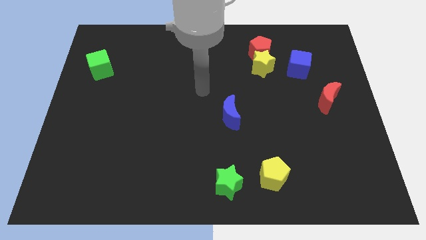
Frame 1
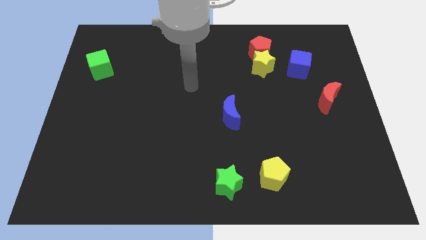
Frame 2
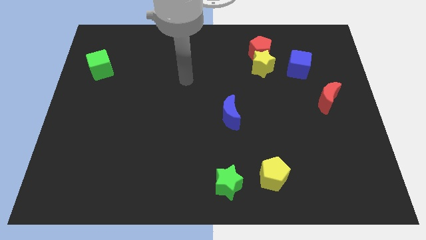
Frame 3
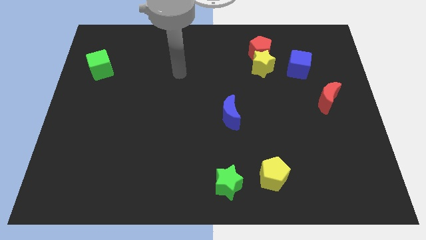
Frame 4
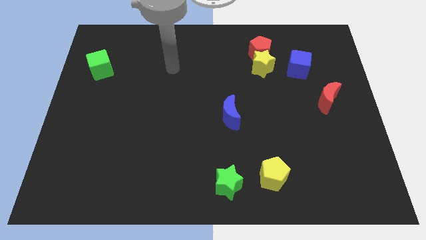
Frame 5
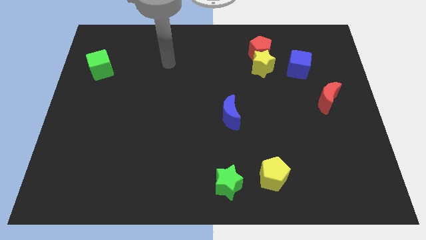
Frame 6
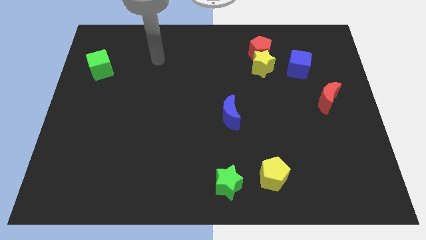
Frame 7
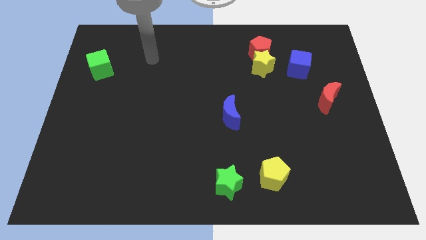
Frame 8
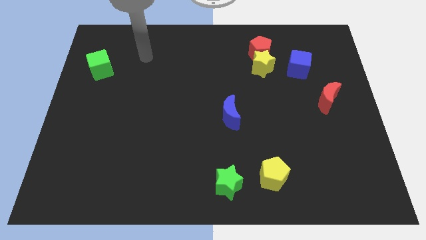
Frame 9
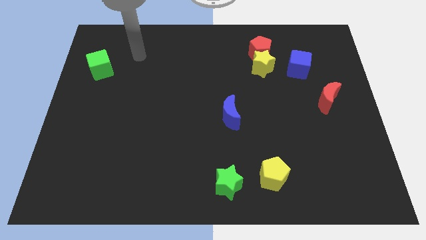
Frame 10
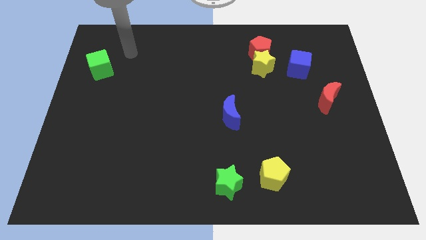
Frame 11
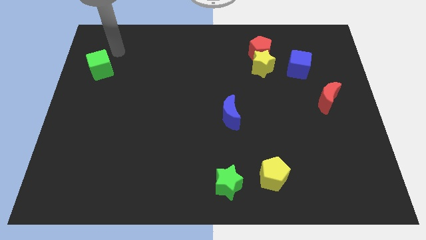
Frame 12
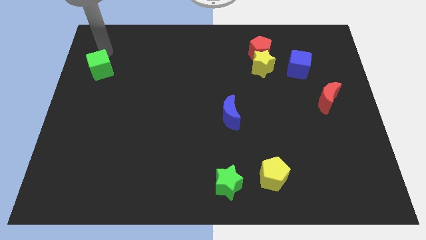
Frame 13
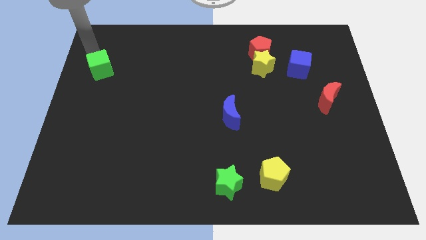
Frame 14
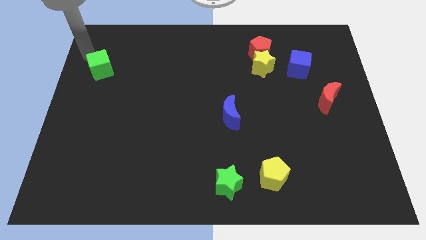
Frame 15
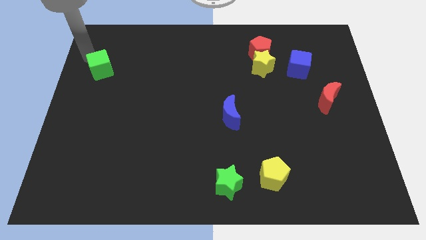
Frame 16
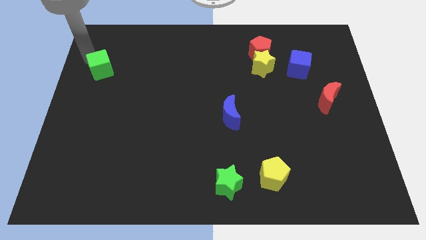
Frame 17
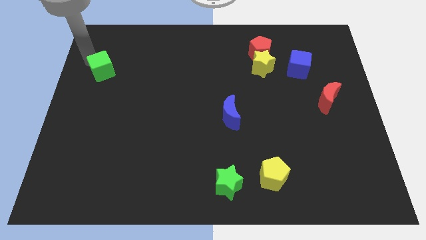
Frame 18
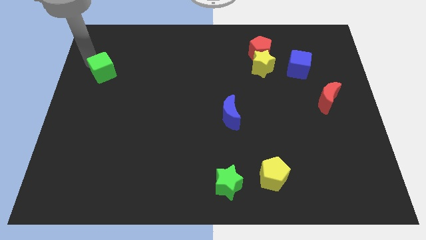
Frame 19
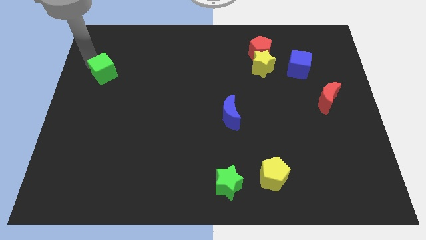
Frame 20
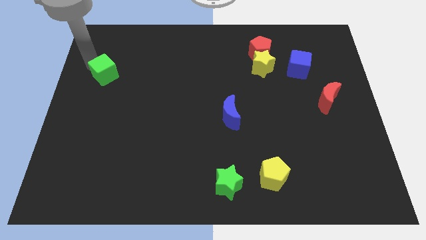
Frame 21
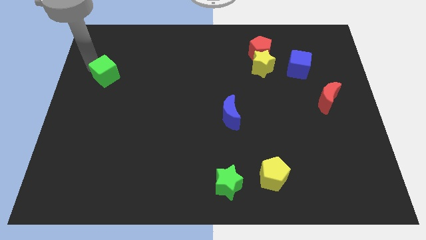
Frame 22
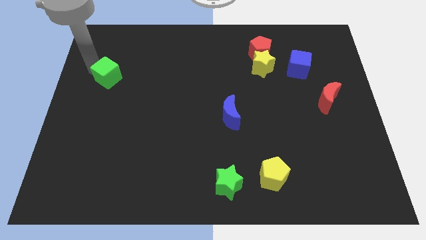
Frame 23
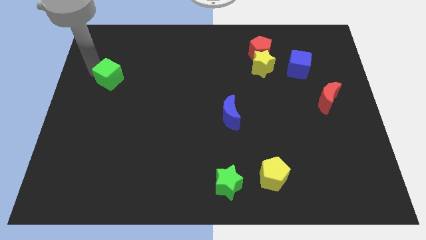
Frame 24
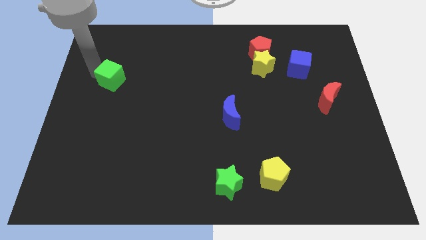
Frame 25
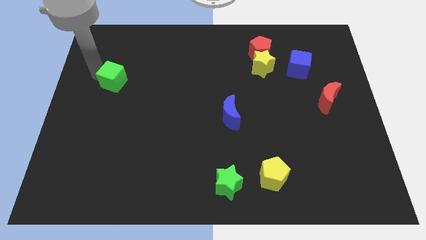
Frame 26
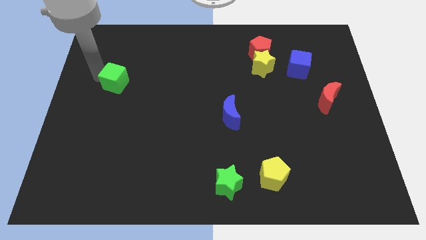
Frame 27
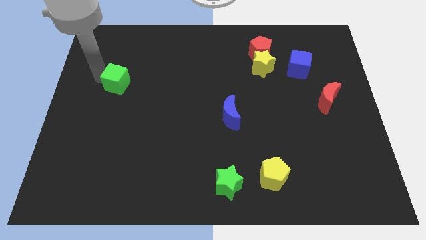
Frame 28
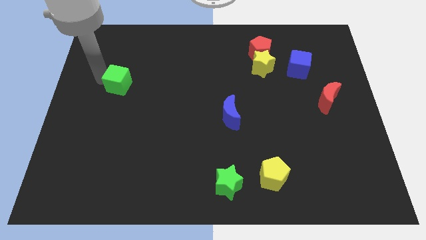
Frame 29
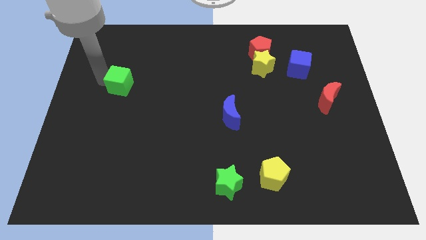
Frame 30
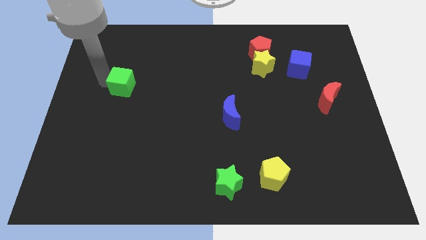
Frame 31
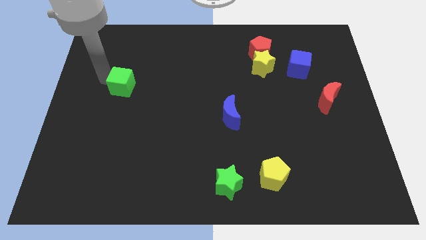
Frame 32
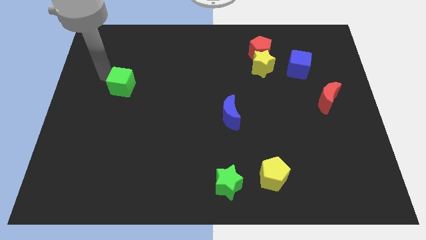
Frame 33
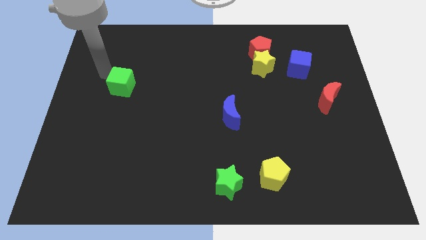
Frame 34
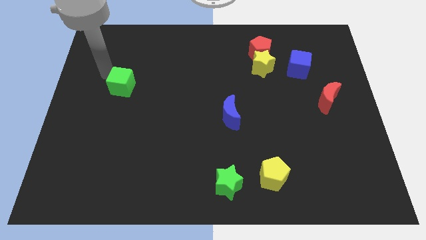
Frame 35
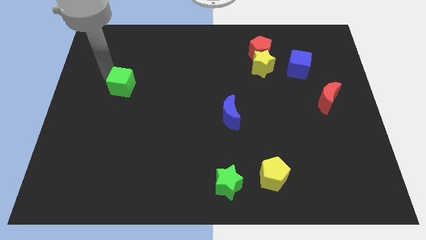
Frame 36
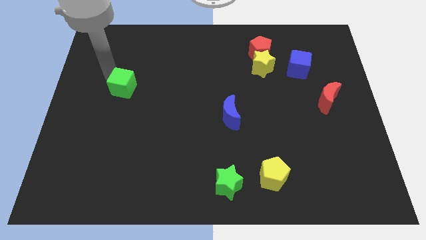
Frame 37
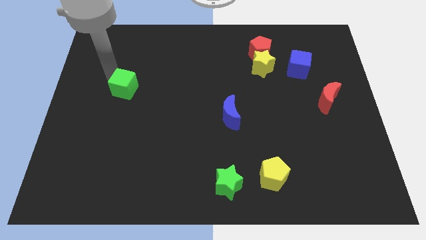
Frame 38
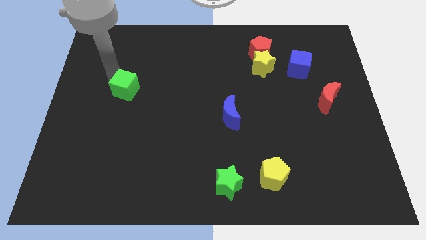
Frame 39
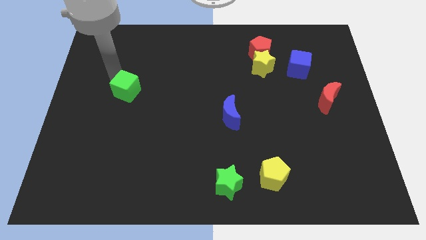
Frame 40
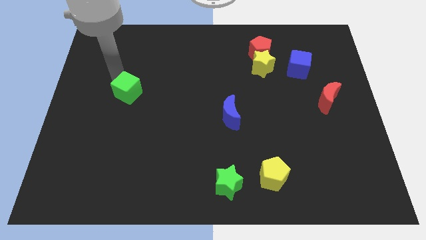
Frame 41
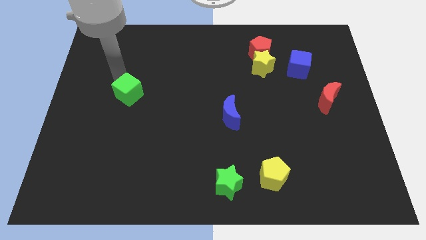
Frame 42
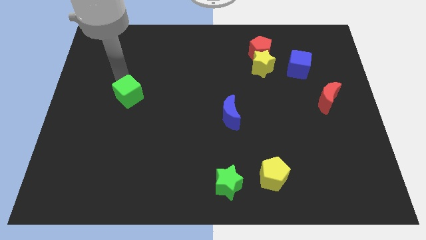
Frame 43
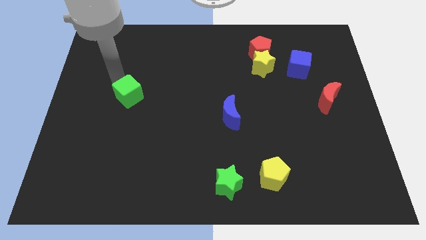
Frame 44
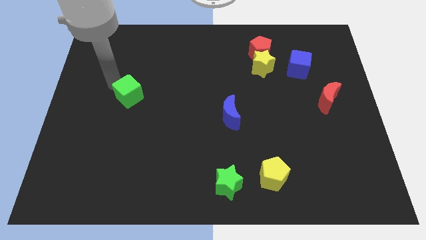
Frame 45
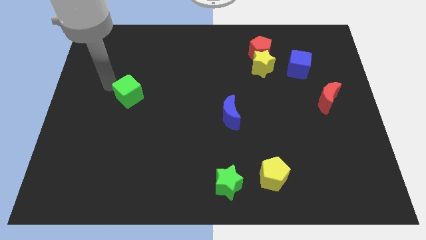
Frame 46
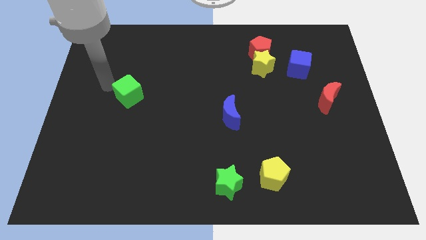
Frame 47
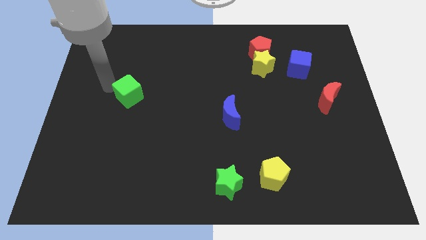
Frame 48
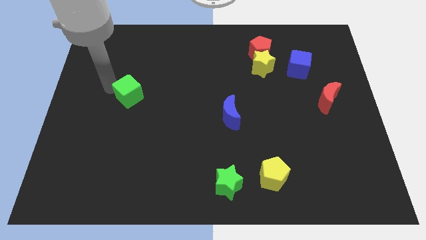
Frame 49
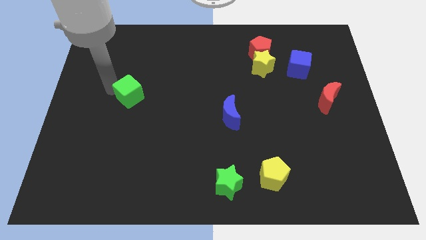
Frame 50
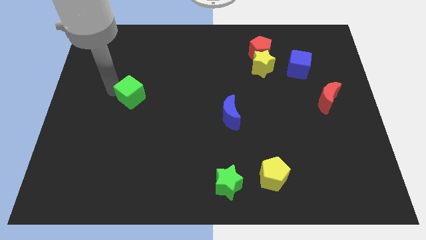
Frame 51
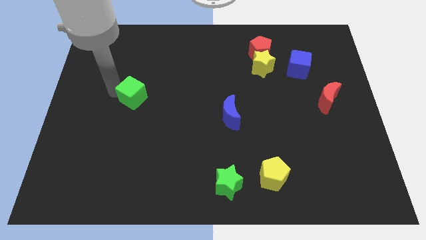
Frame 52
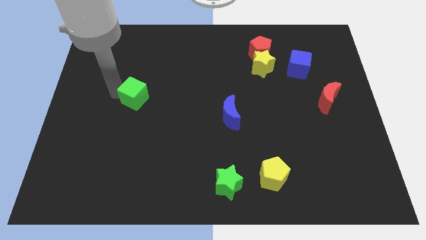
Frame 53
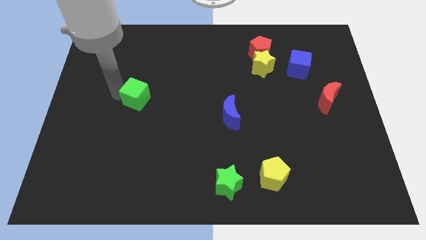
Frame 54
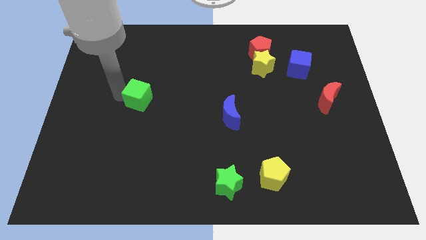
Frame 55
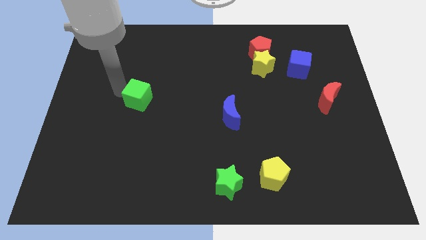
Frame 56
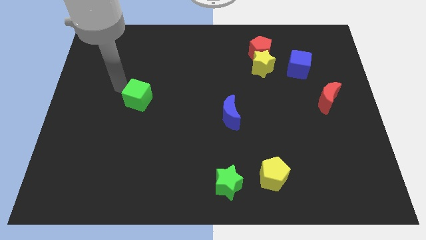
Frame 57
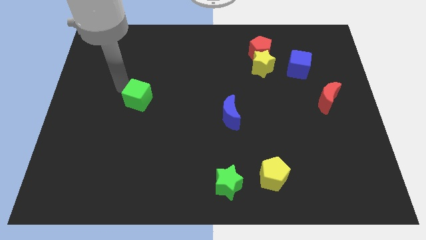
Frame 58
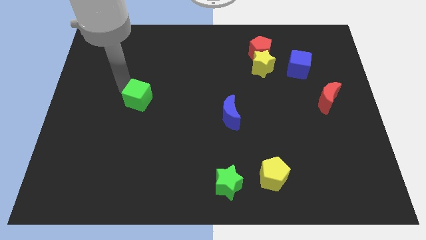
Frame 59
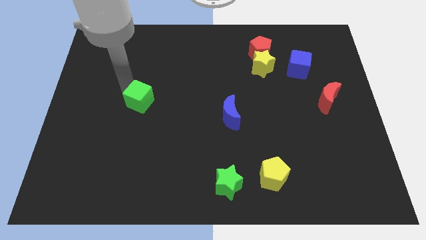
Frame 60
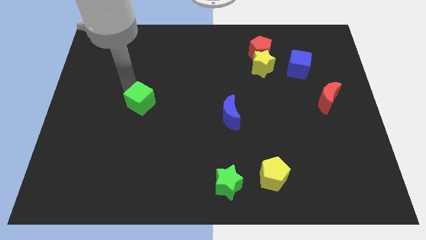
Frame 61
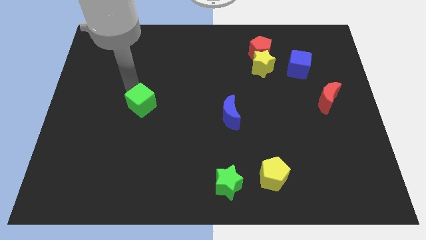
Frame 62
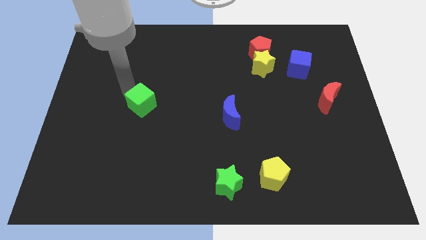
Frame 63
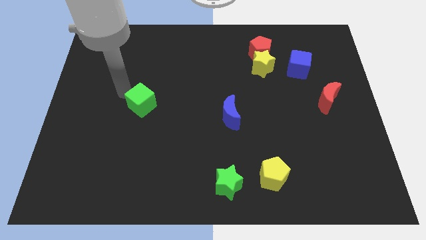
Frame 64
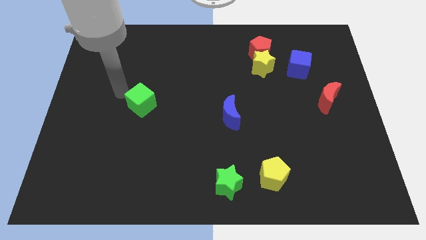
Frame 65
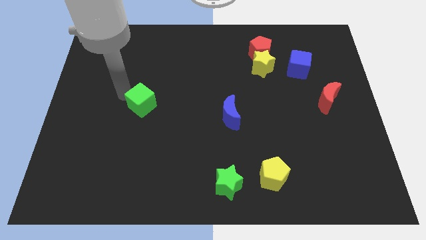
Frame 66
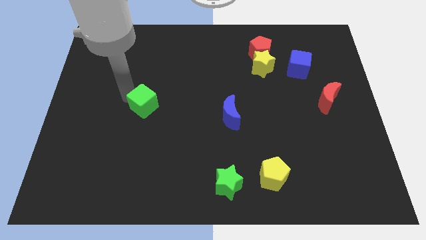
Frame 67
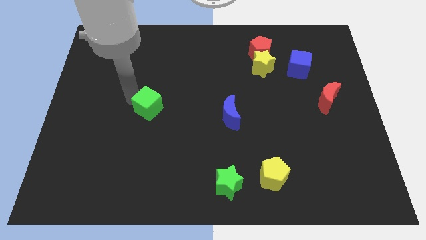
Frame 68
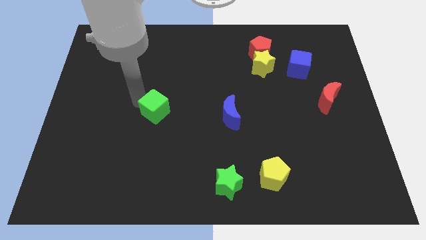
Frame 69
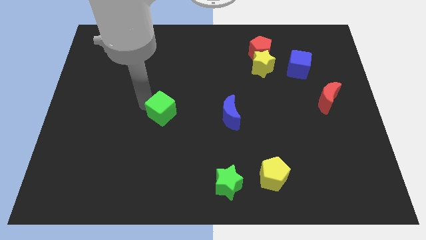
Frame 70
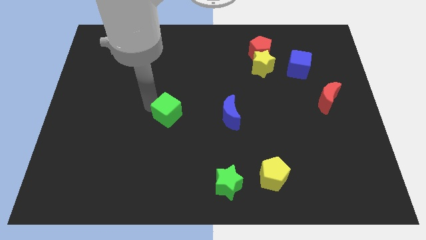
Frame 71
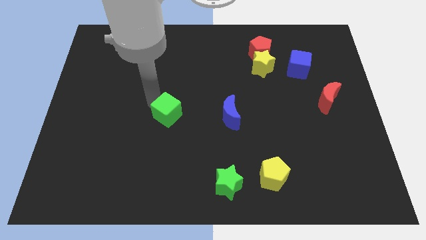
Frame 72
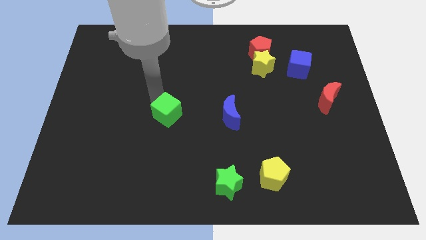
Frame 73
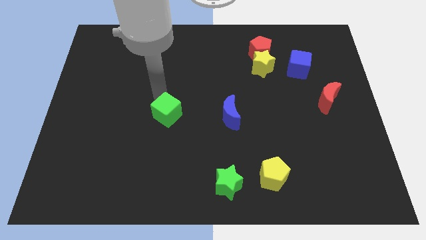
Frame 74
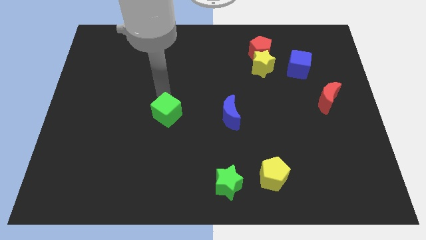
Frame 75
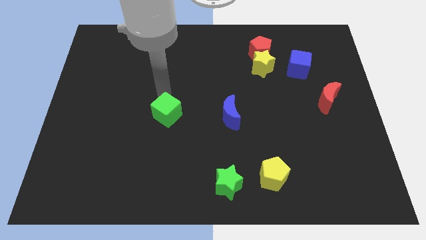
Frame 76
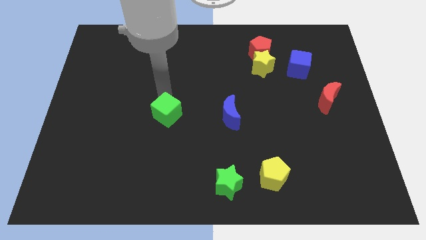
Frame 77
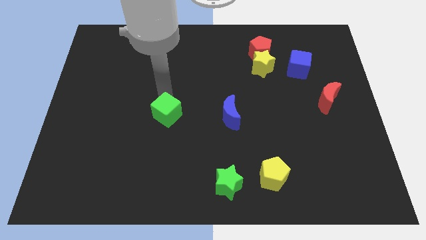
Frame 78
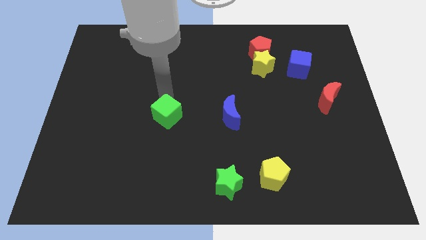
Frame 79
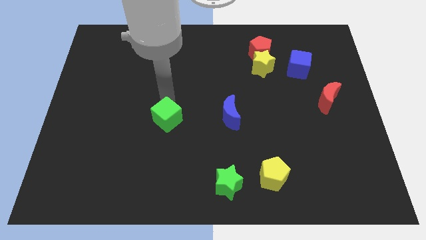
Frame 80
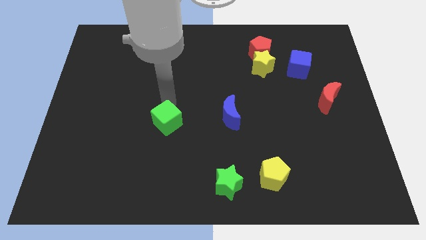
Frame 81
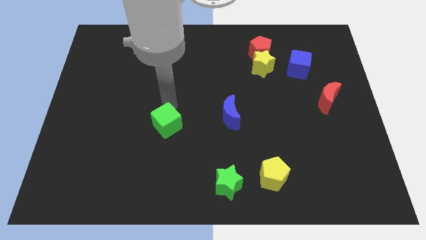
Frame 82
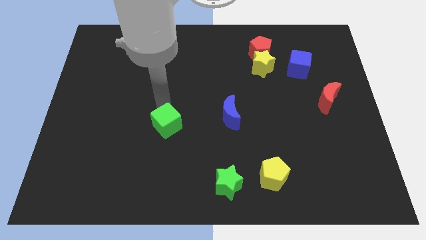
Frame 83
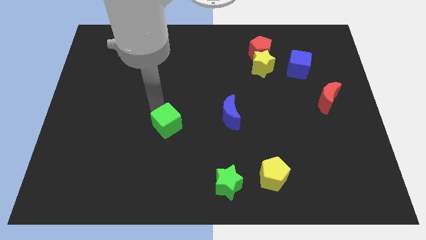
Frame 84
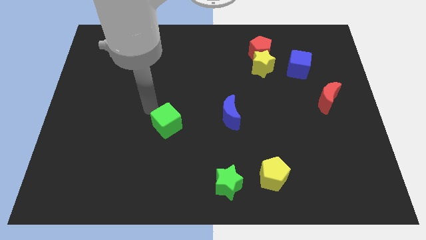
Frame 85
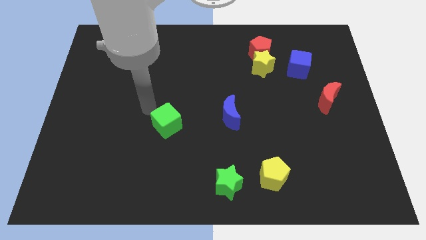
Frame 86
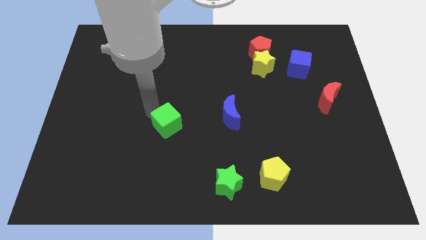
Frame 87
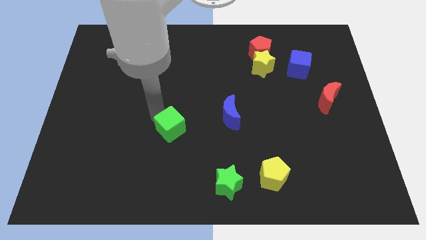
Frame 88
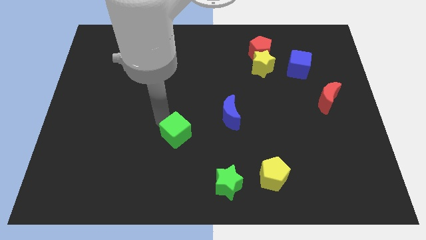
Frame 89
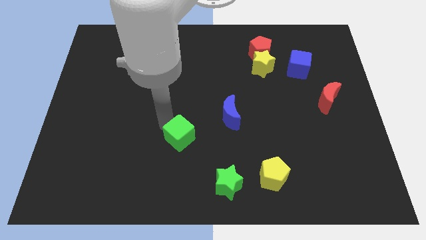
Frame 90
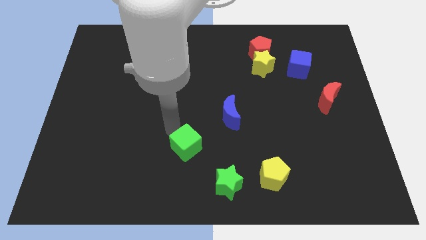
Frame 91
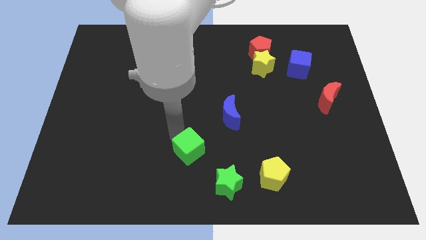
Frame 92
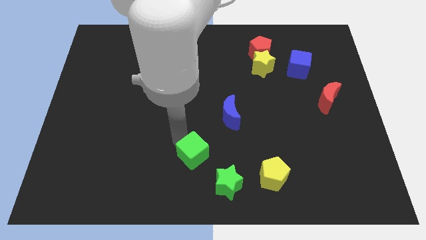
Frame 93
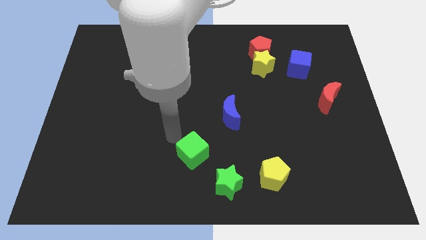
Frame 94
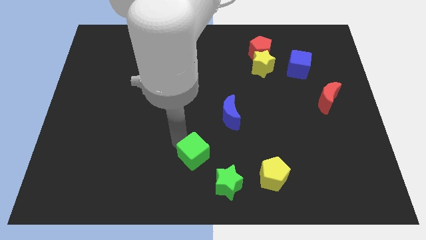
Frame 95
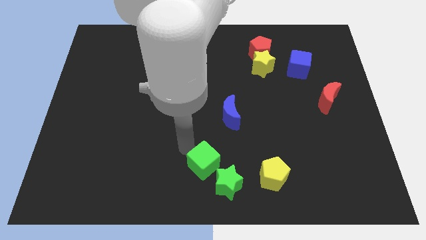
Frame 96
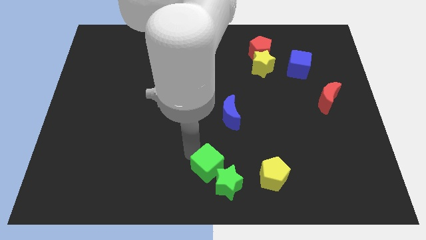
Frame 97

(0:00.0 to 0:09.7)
slide the green cube next to the green star
